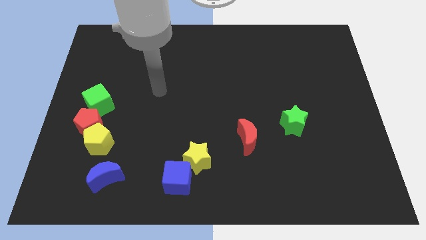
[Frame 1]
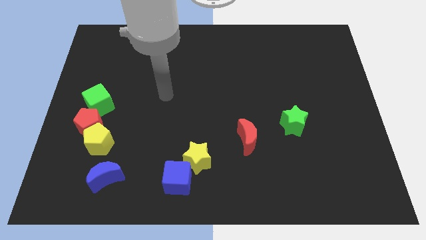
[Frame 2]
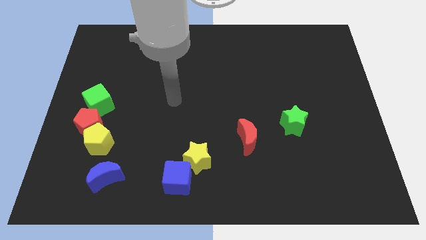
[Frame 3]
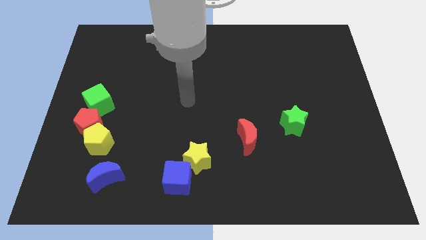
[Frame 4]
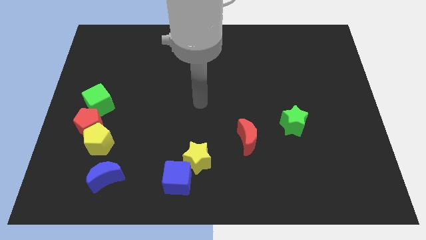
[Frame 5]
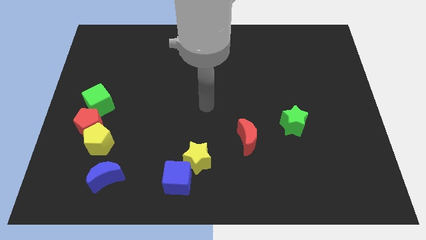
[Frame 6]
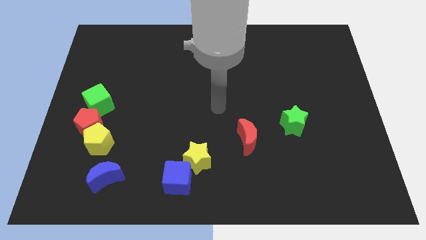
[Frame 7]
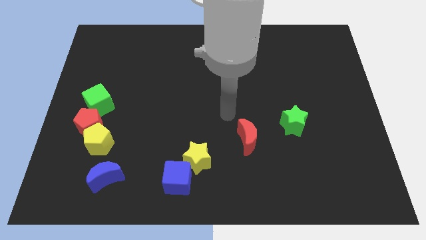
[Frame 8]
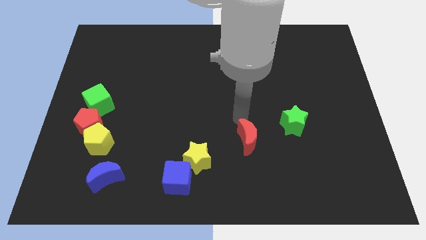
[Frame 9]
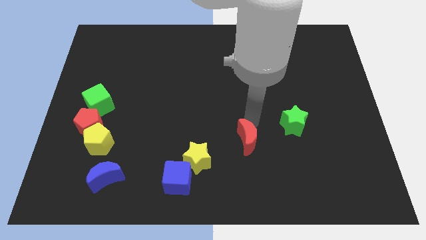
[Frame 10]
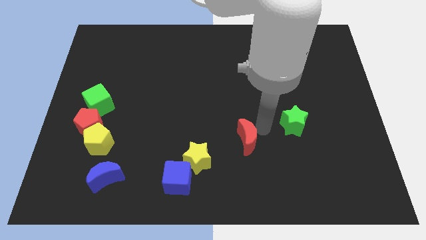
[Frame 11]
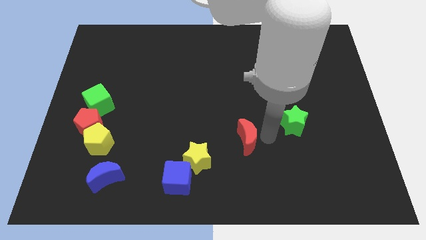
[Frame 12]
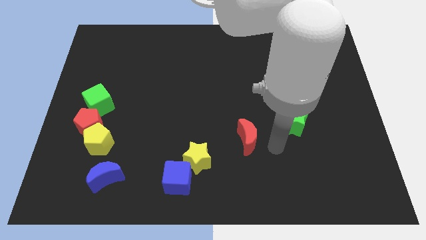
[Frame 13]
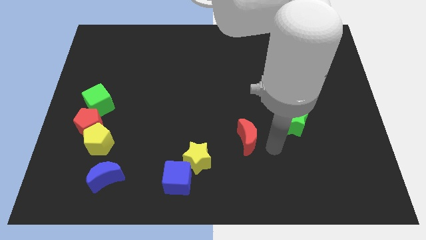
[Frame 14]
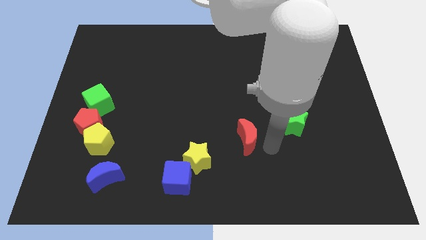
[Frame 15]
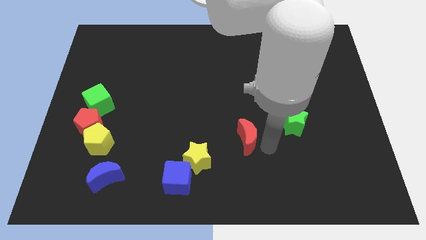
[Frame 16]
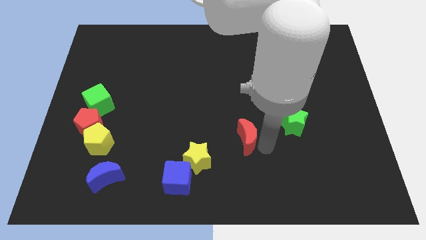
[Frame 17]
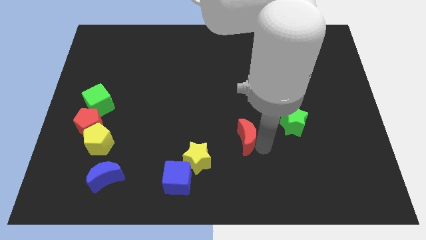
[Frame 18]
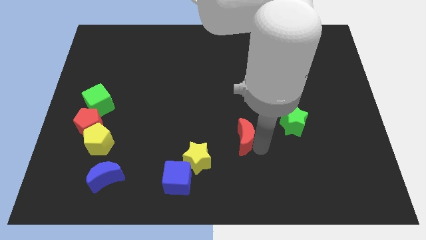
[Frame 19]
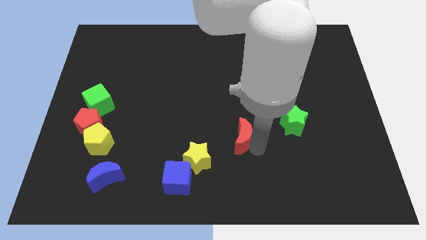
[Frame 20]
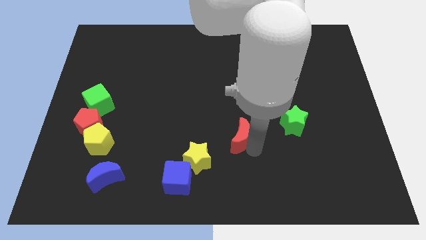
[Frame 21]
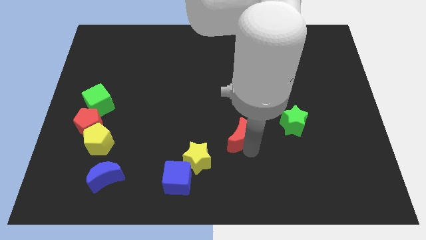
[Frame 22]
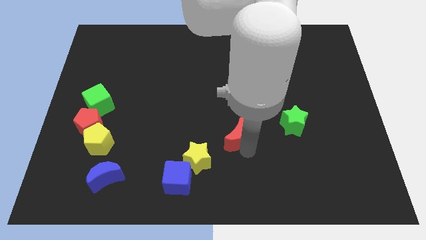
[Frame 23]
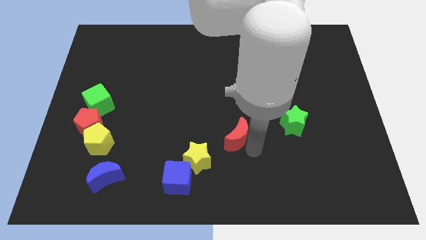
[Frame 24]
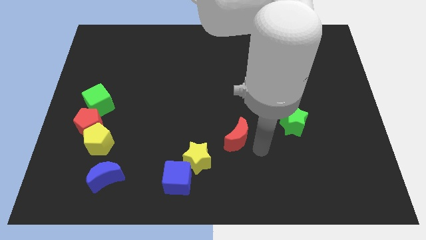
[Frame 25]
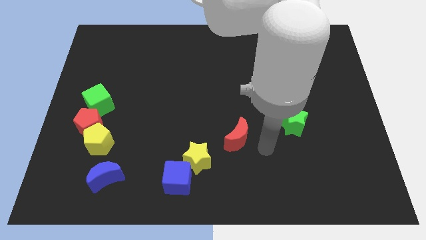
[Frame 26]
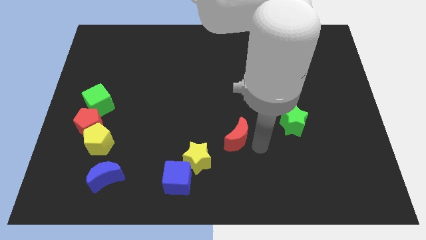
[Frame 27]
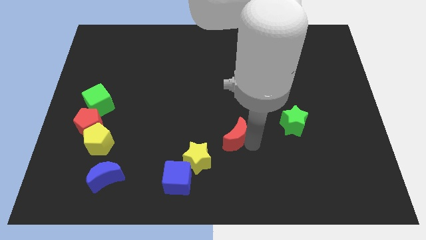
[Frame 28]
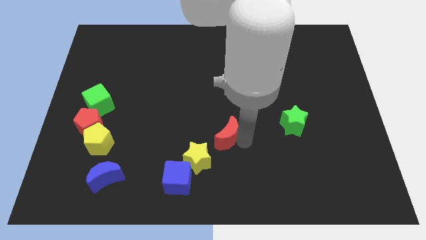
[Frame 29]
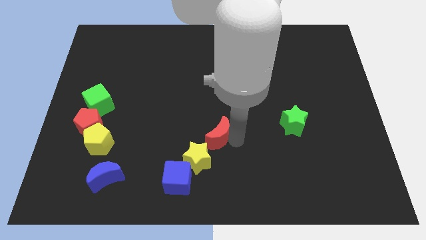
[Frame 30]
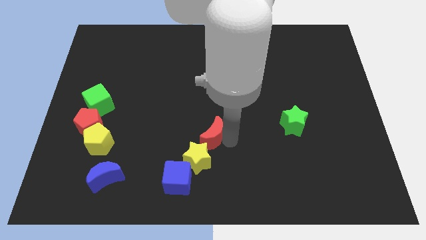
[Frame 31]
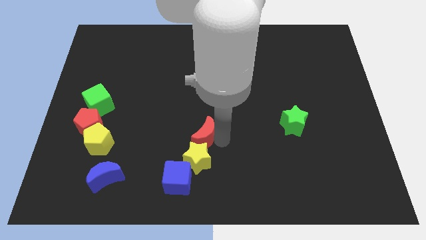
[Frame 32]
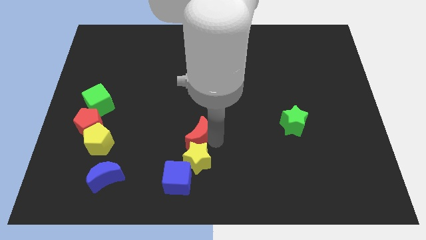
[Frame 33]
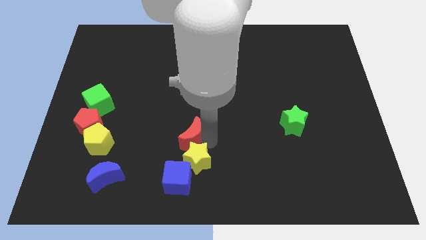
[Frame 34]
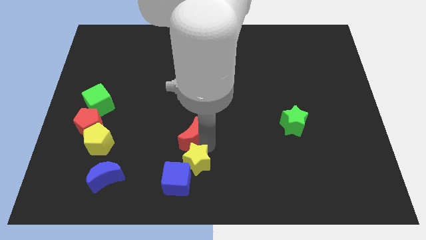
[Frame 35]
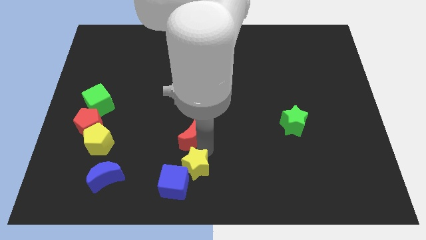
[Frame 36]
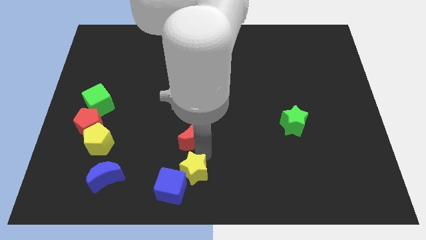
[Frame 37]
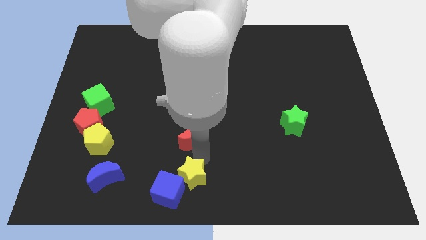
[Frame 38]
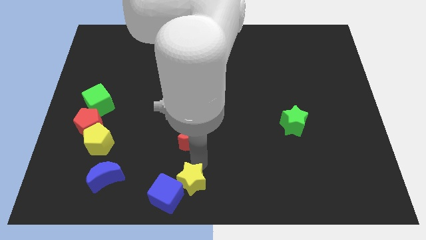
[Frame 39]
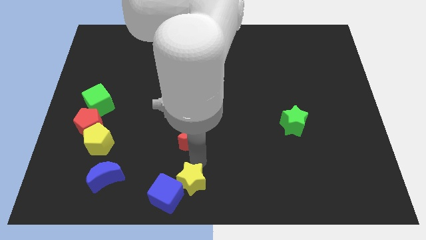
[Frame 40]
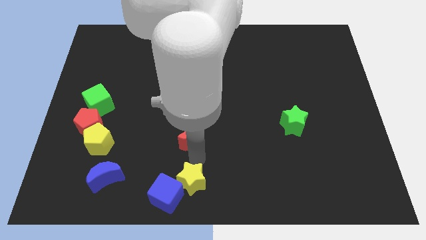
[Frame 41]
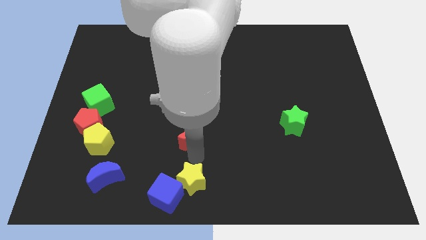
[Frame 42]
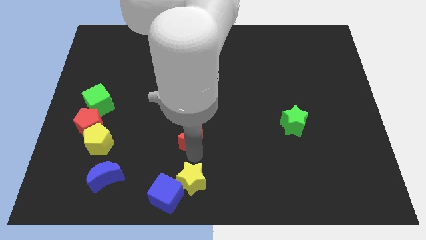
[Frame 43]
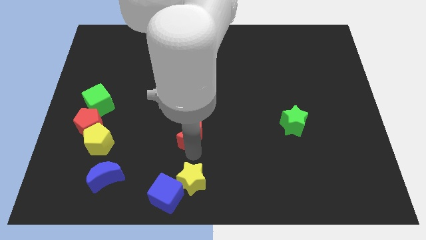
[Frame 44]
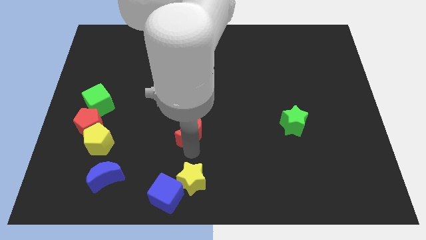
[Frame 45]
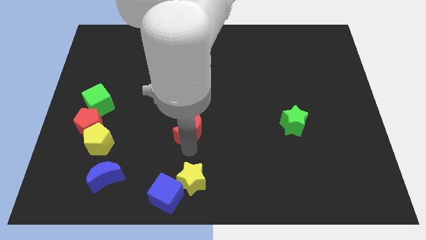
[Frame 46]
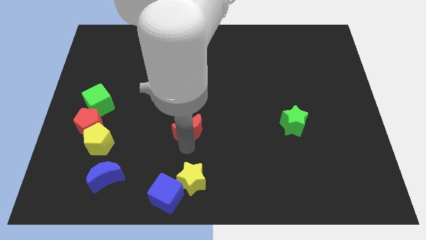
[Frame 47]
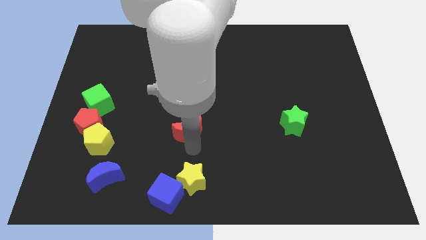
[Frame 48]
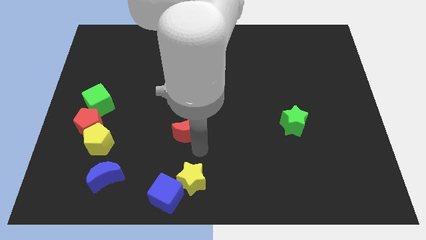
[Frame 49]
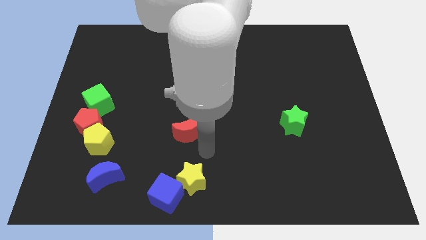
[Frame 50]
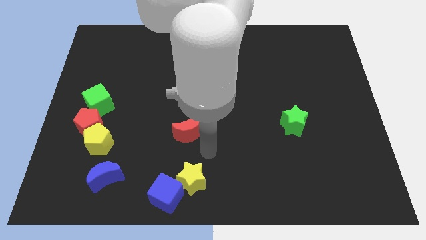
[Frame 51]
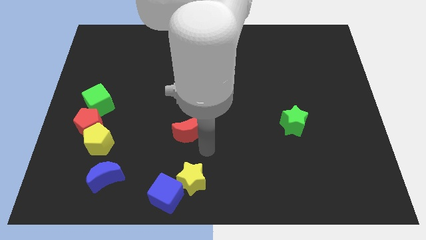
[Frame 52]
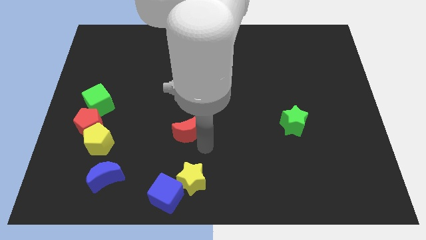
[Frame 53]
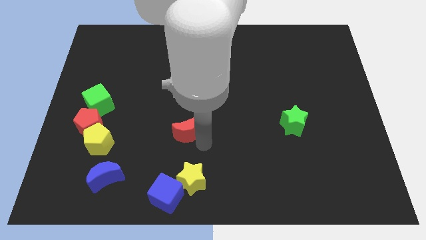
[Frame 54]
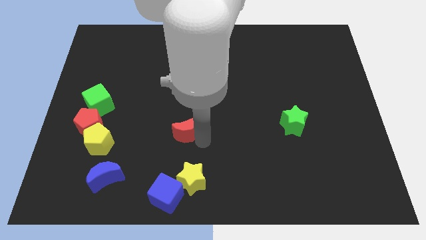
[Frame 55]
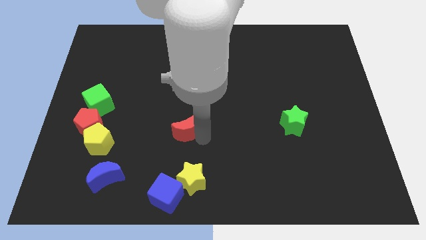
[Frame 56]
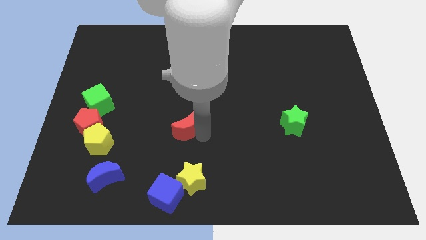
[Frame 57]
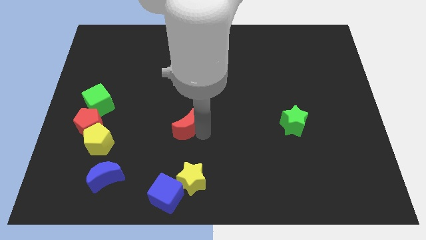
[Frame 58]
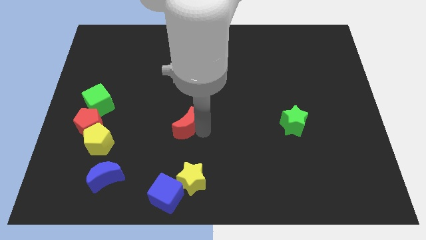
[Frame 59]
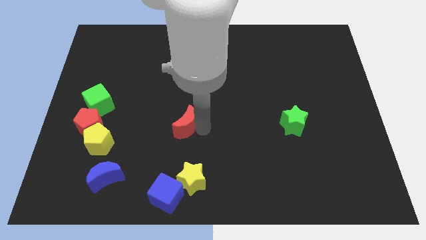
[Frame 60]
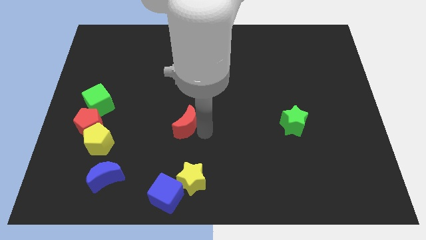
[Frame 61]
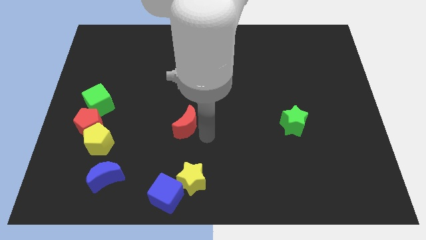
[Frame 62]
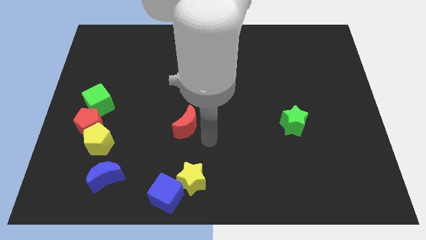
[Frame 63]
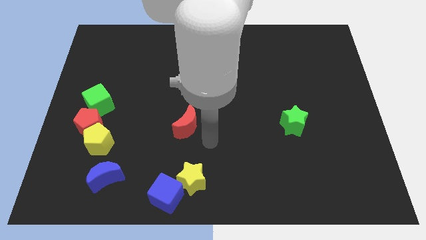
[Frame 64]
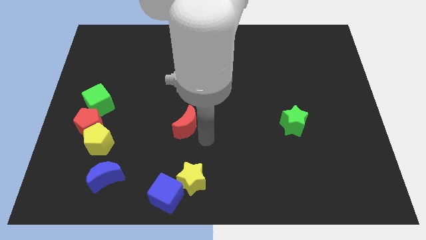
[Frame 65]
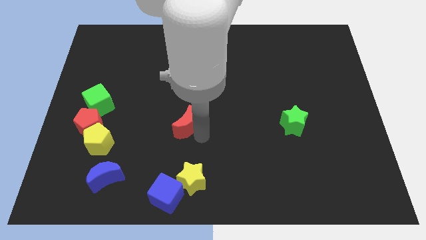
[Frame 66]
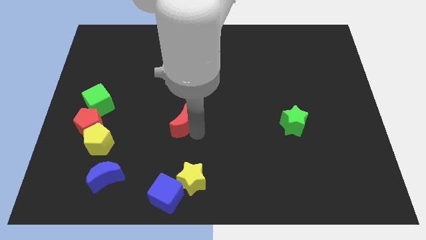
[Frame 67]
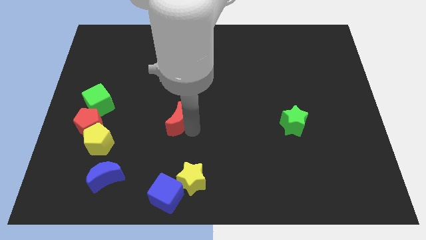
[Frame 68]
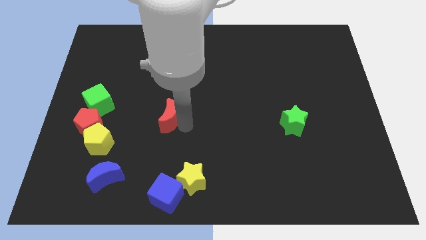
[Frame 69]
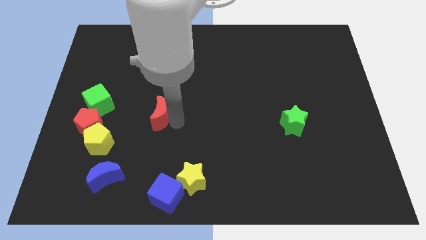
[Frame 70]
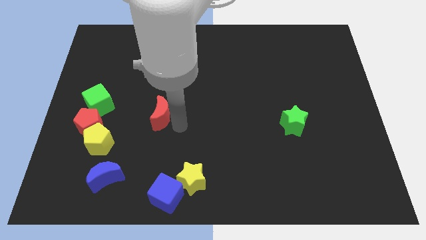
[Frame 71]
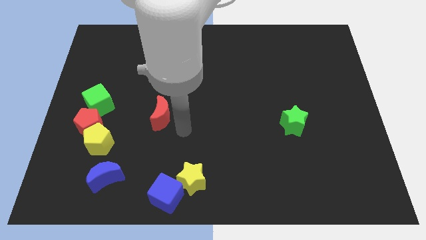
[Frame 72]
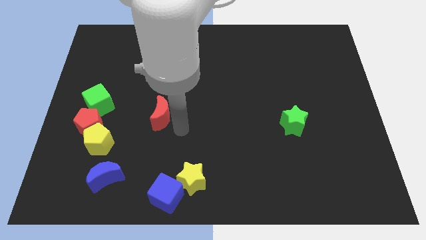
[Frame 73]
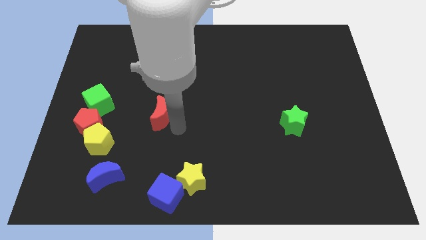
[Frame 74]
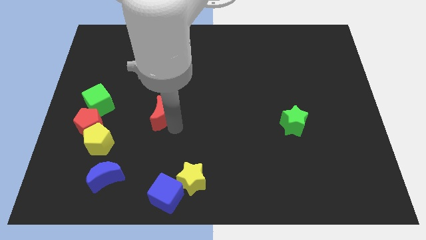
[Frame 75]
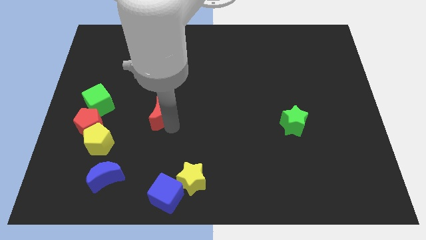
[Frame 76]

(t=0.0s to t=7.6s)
put the red moon right of the green cube
